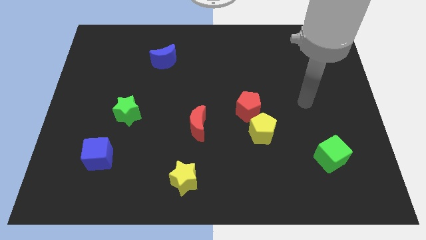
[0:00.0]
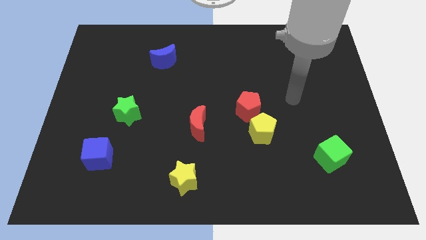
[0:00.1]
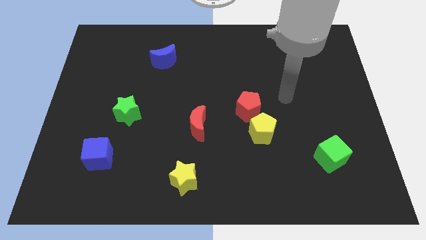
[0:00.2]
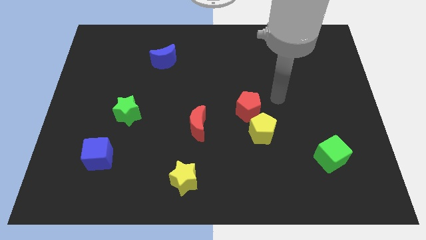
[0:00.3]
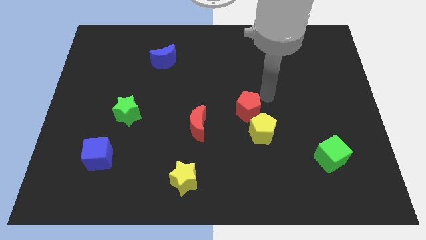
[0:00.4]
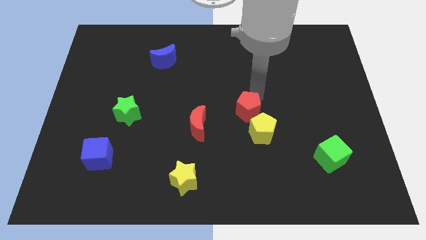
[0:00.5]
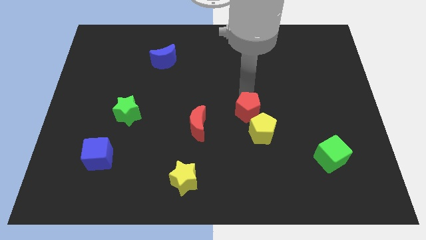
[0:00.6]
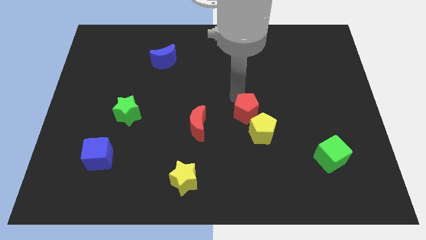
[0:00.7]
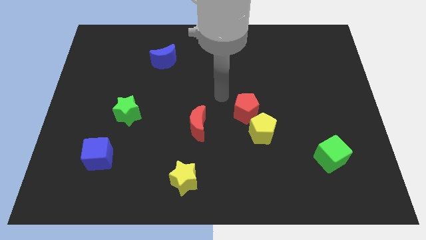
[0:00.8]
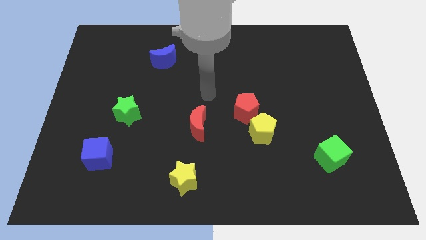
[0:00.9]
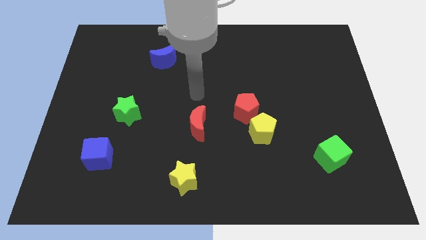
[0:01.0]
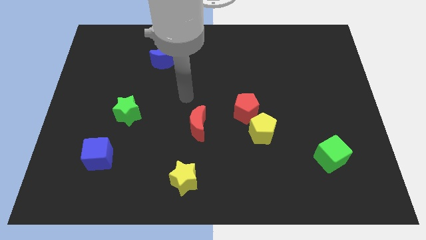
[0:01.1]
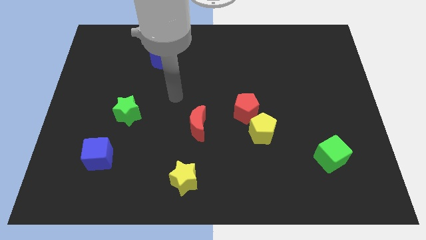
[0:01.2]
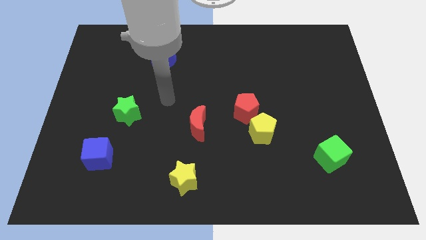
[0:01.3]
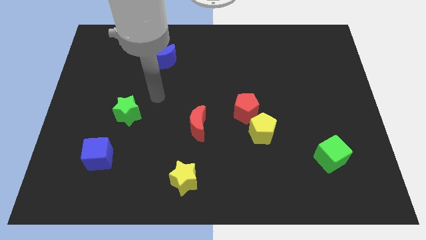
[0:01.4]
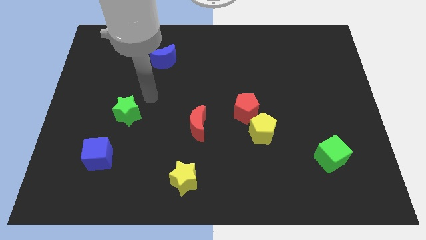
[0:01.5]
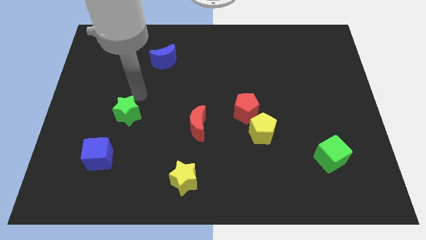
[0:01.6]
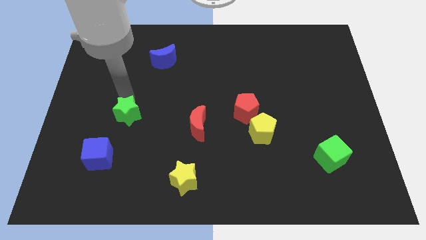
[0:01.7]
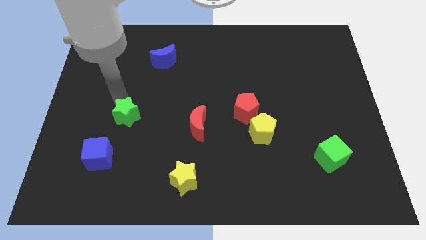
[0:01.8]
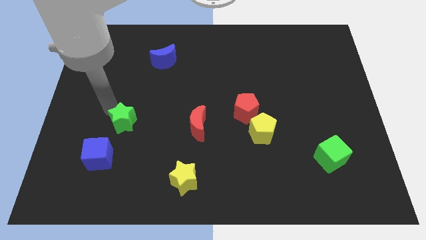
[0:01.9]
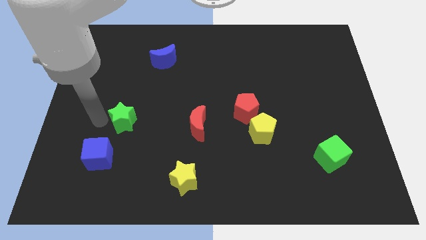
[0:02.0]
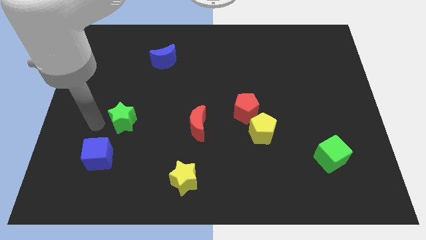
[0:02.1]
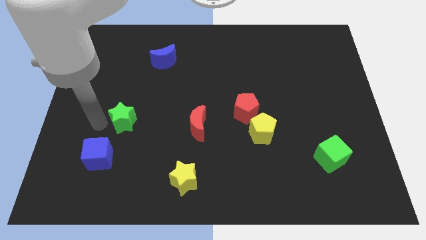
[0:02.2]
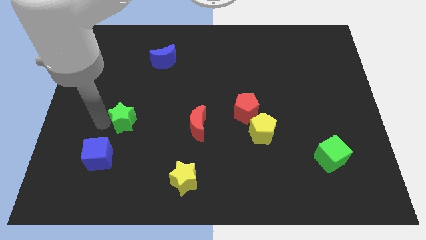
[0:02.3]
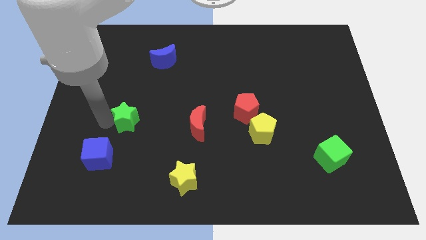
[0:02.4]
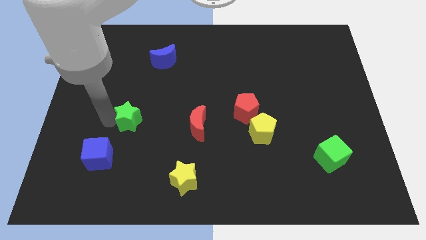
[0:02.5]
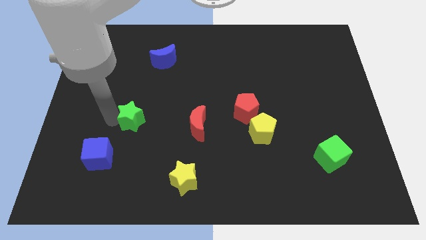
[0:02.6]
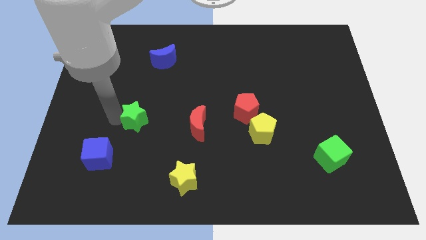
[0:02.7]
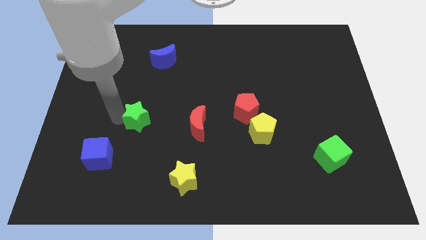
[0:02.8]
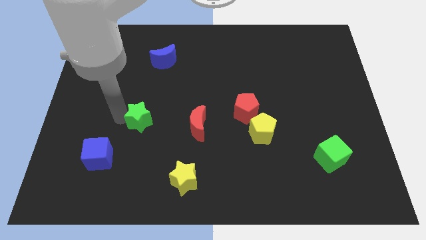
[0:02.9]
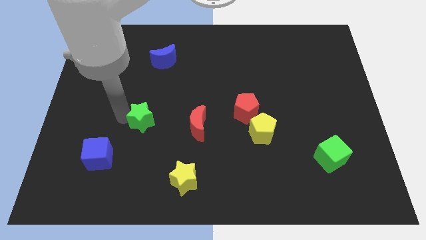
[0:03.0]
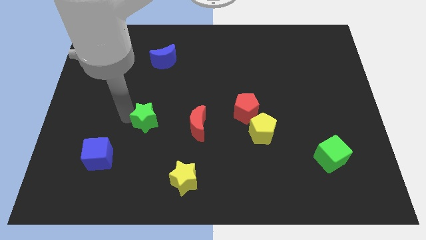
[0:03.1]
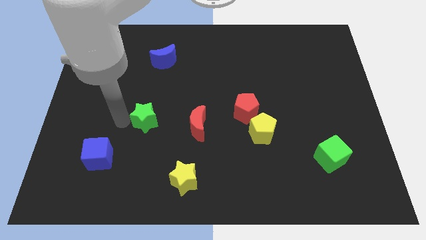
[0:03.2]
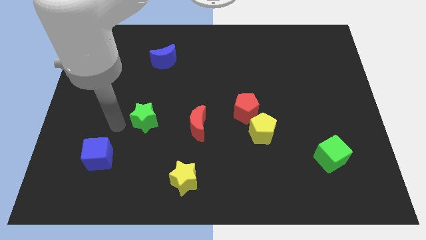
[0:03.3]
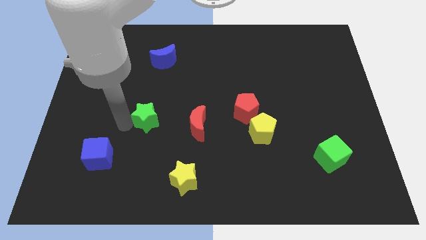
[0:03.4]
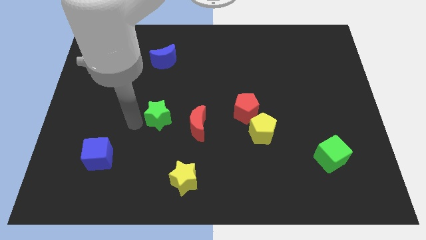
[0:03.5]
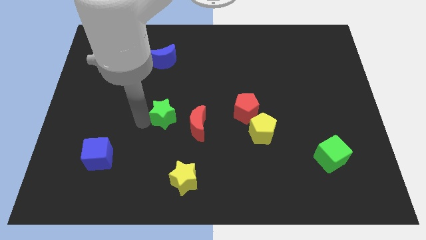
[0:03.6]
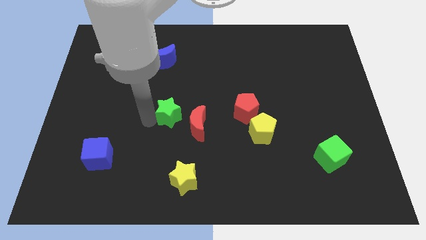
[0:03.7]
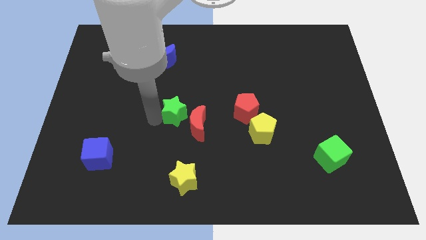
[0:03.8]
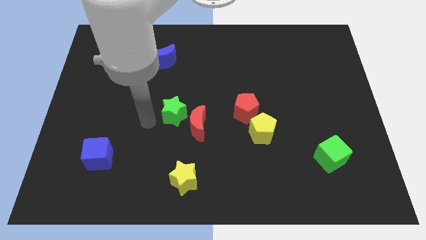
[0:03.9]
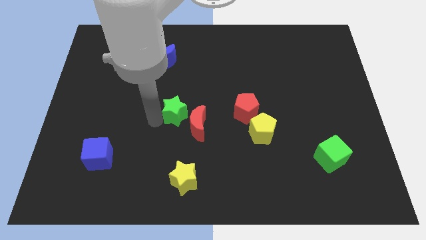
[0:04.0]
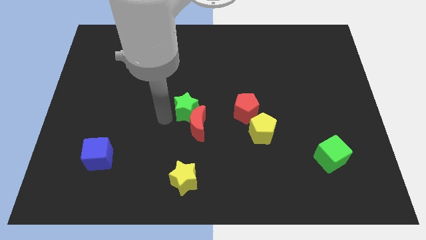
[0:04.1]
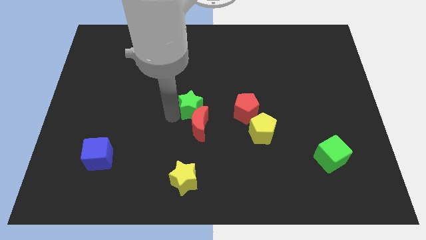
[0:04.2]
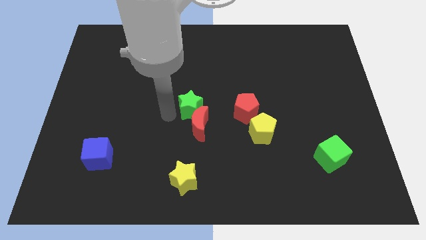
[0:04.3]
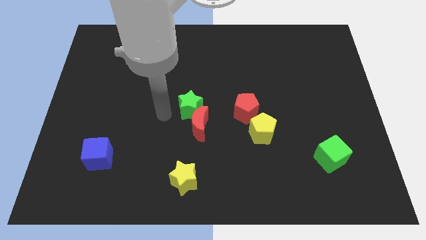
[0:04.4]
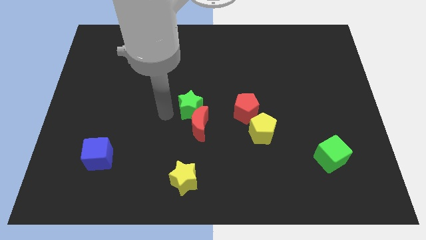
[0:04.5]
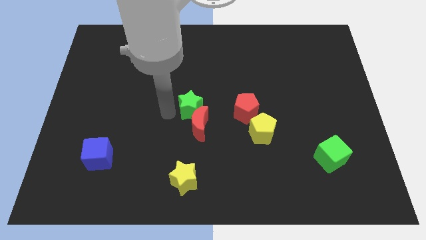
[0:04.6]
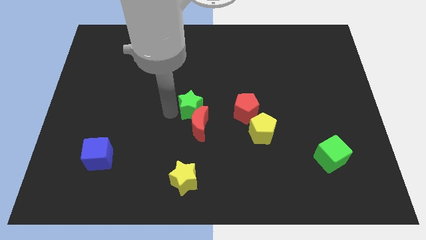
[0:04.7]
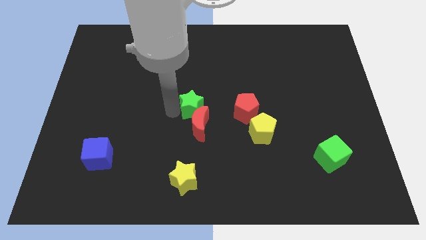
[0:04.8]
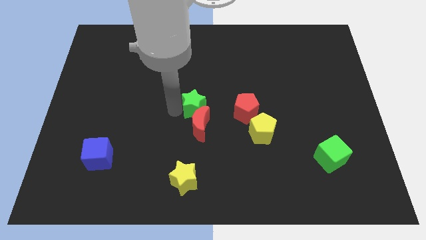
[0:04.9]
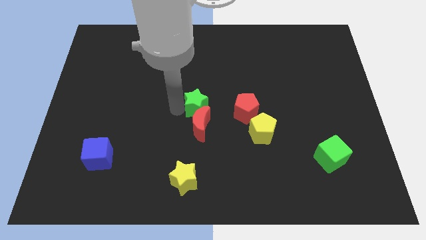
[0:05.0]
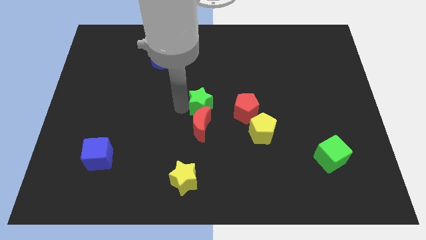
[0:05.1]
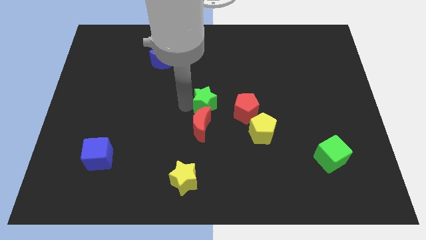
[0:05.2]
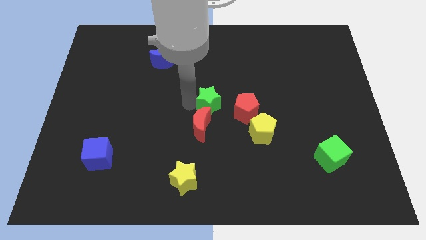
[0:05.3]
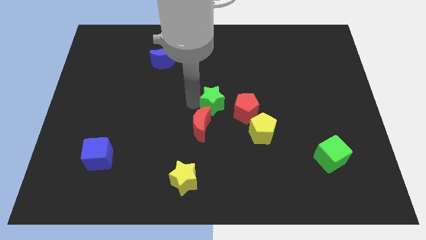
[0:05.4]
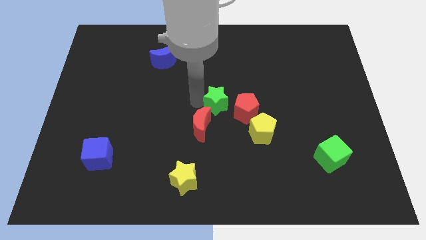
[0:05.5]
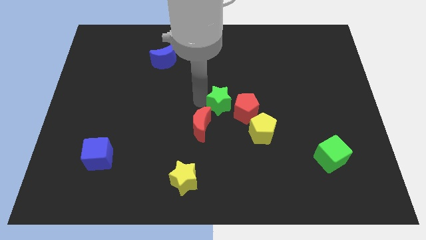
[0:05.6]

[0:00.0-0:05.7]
put the green star to the red pentagon
